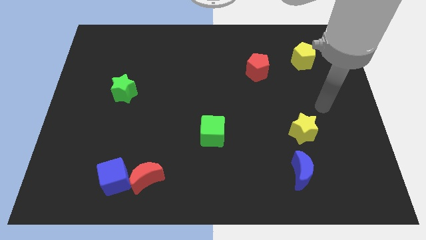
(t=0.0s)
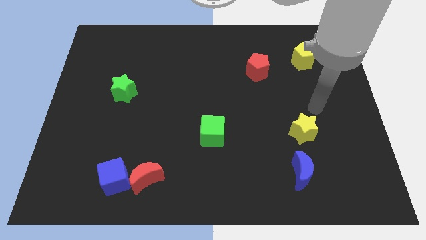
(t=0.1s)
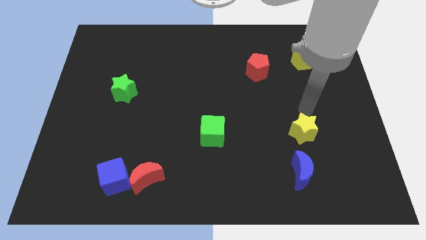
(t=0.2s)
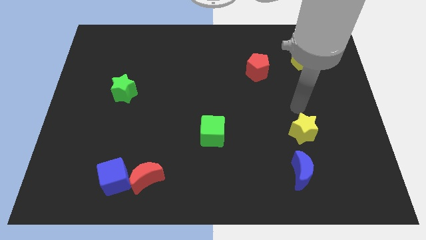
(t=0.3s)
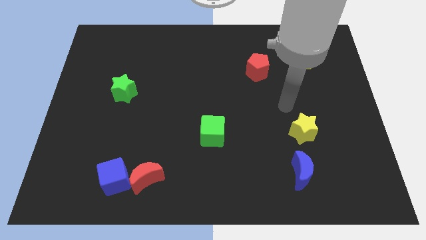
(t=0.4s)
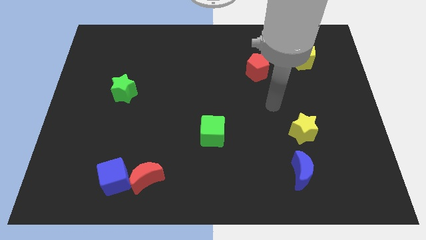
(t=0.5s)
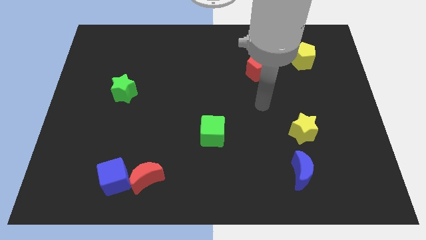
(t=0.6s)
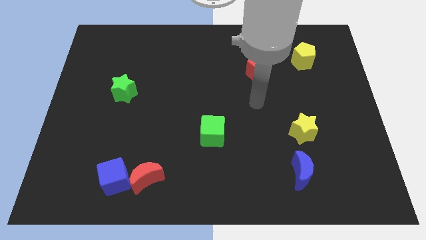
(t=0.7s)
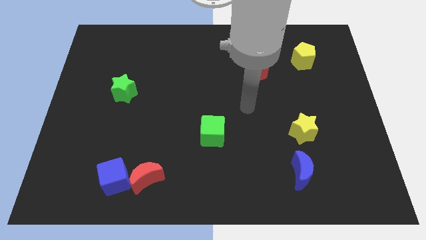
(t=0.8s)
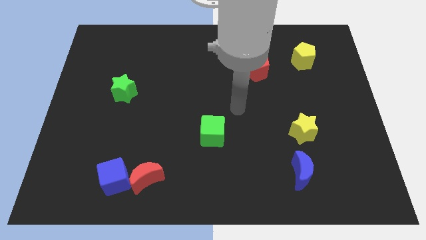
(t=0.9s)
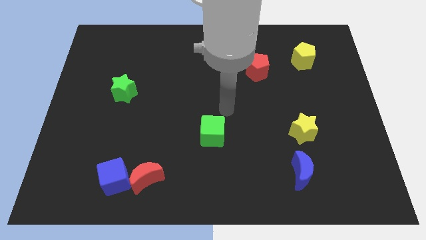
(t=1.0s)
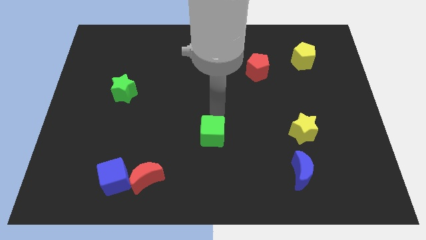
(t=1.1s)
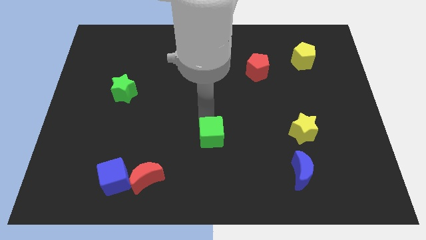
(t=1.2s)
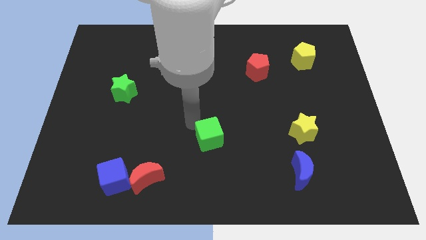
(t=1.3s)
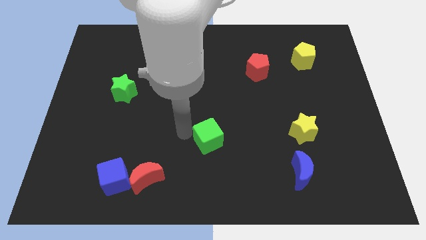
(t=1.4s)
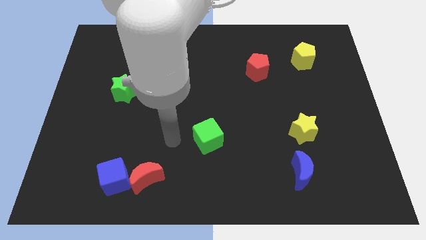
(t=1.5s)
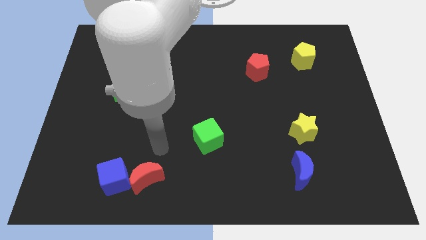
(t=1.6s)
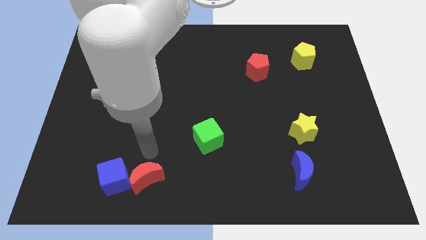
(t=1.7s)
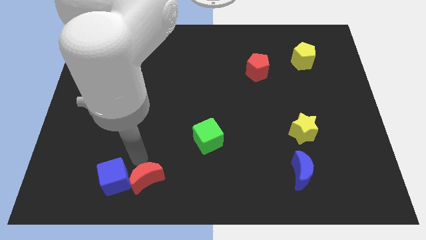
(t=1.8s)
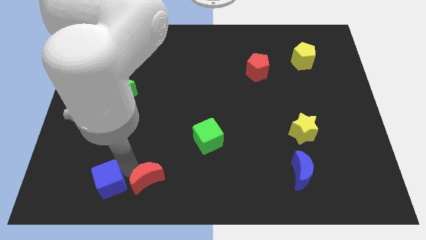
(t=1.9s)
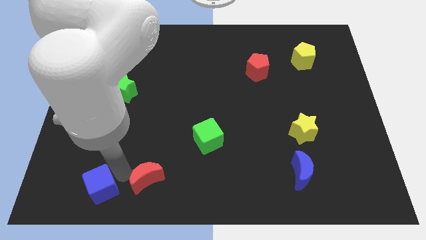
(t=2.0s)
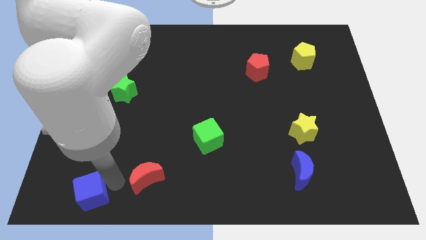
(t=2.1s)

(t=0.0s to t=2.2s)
move the red moon away from the blue cube

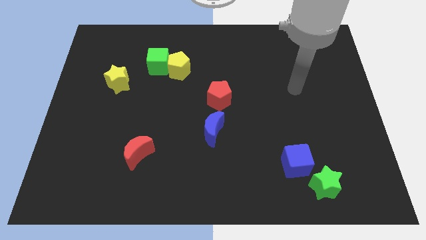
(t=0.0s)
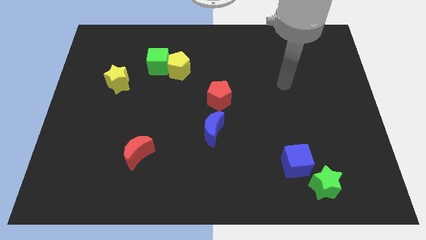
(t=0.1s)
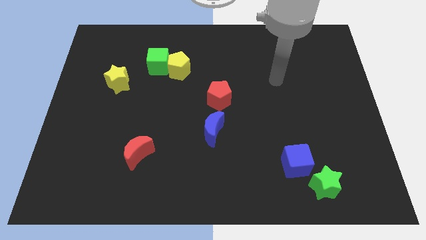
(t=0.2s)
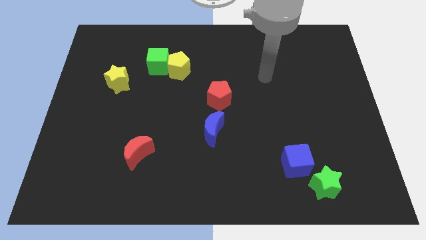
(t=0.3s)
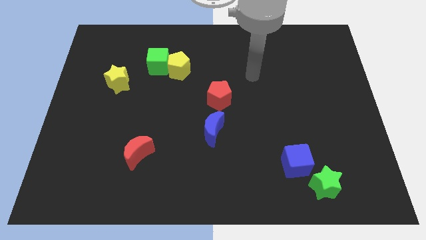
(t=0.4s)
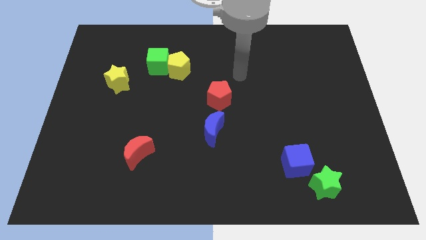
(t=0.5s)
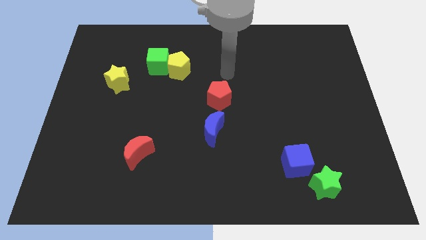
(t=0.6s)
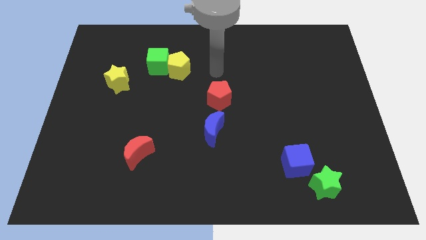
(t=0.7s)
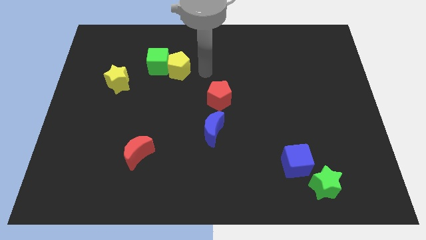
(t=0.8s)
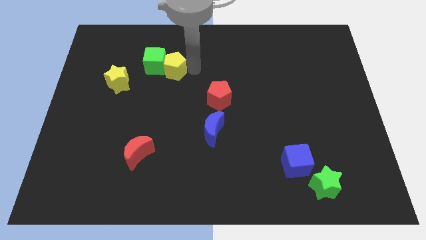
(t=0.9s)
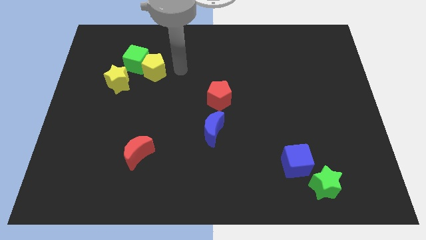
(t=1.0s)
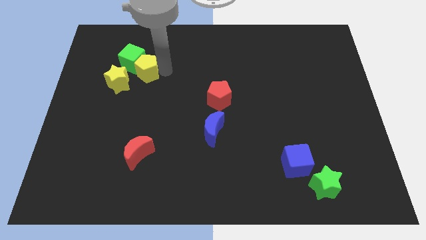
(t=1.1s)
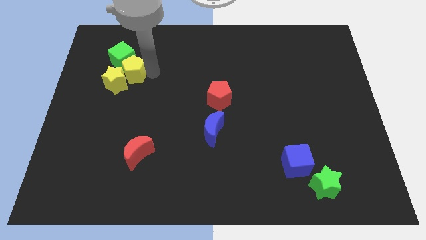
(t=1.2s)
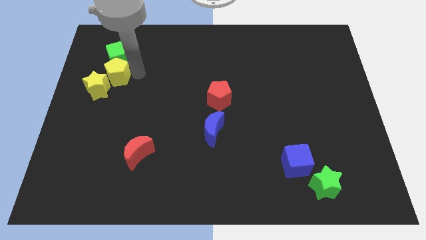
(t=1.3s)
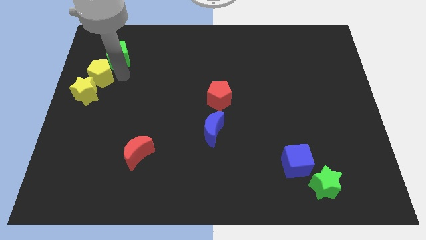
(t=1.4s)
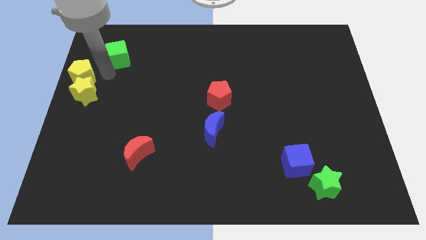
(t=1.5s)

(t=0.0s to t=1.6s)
pull the green cube apart from the yellow pentagon

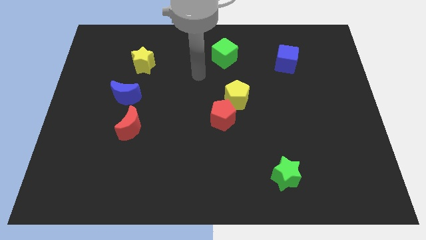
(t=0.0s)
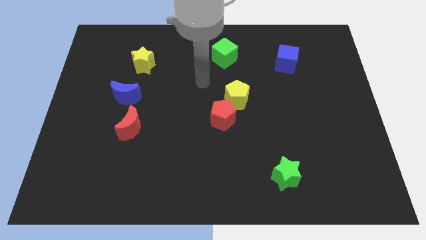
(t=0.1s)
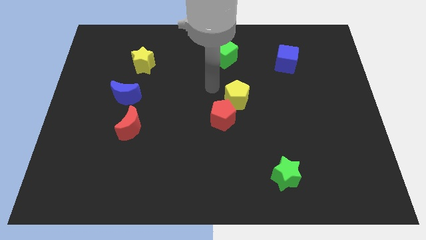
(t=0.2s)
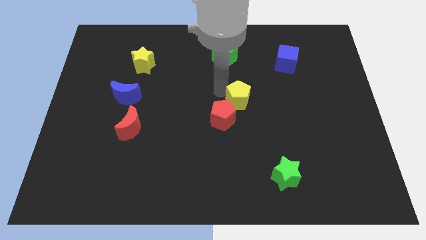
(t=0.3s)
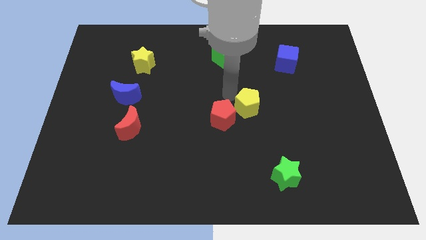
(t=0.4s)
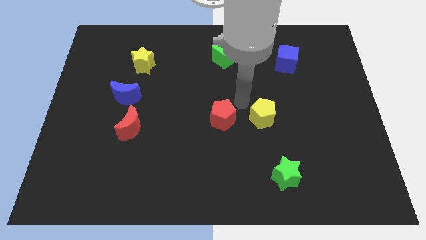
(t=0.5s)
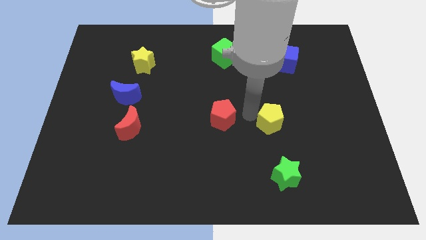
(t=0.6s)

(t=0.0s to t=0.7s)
separate the red pentagon from the yellow pentagon

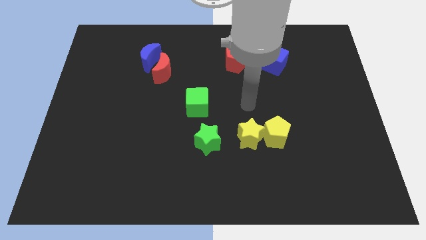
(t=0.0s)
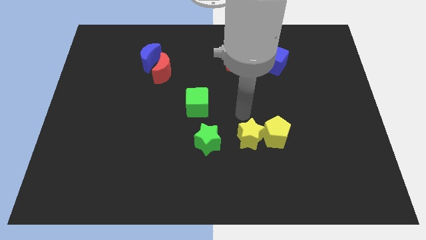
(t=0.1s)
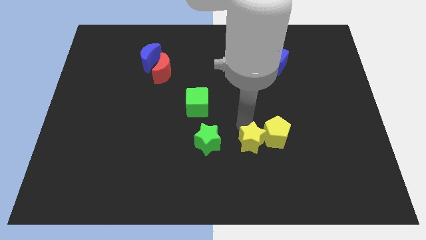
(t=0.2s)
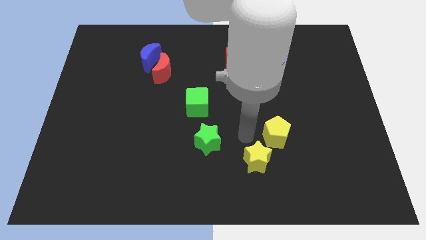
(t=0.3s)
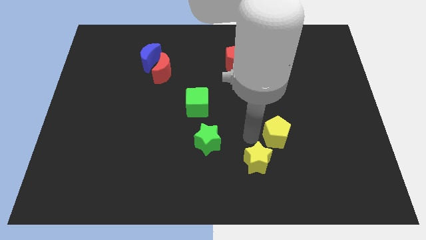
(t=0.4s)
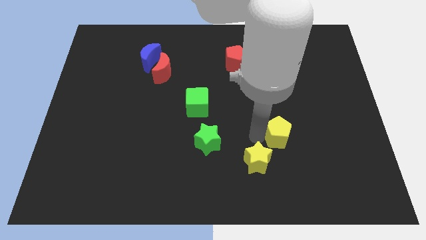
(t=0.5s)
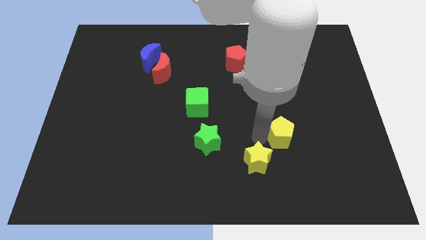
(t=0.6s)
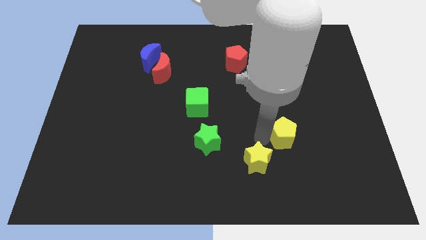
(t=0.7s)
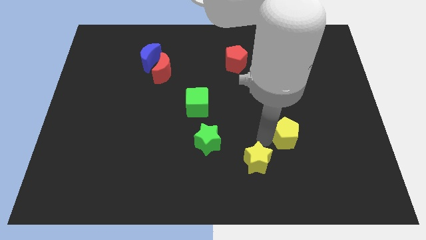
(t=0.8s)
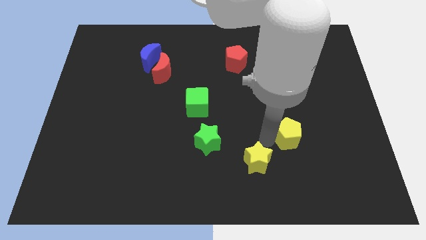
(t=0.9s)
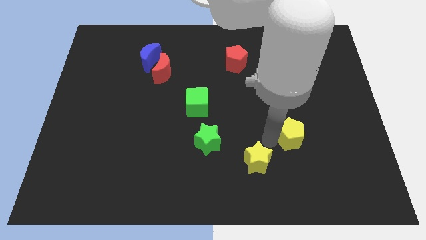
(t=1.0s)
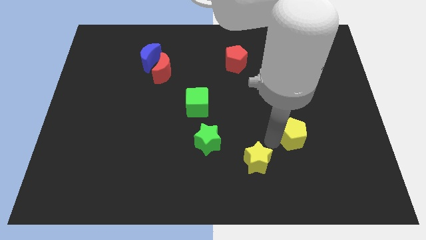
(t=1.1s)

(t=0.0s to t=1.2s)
pull the yellow pentagon apart from the yellow star

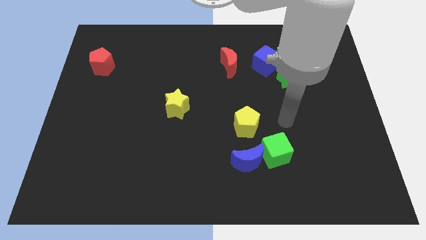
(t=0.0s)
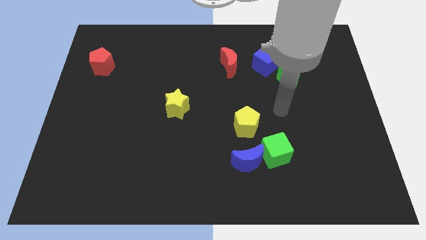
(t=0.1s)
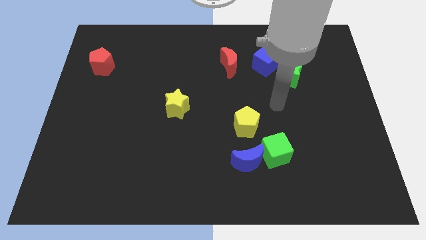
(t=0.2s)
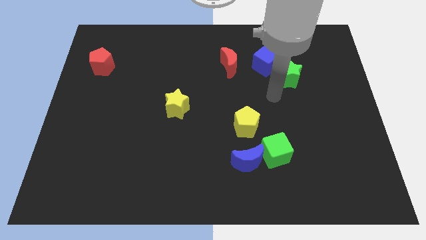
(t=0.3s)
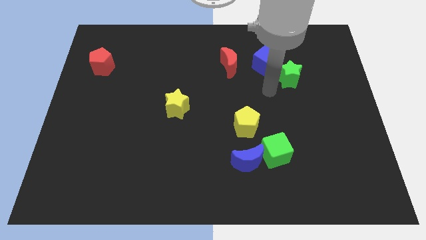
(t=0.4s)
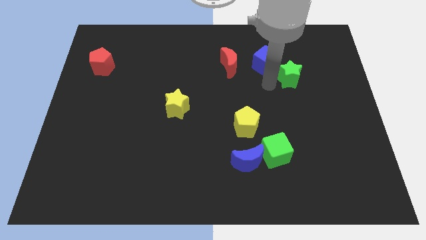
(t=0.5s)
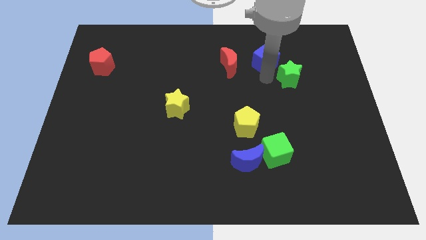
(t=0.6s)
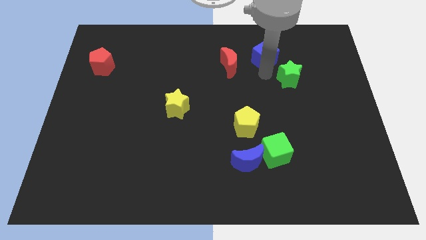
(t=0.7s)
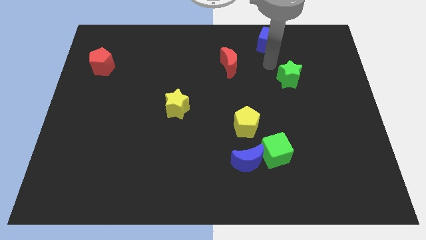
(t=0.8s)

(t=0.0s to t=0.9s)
move the green star away from the blue cube

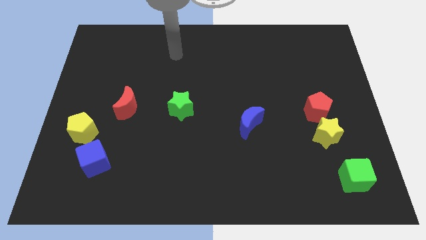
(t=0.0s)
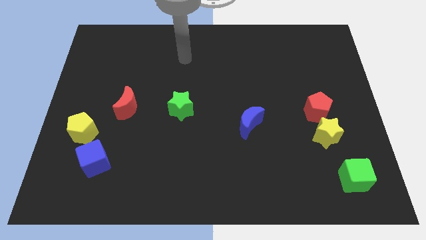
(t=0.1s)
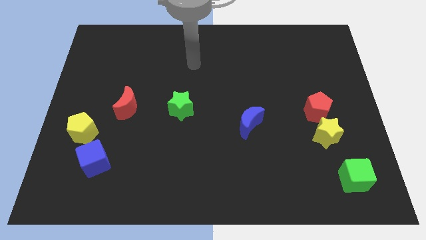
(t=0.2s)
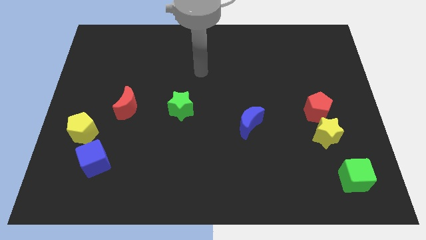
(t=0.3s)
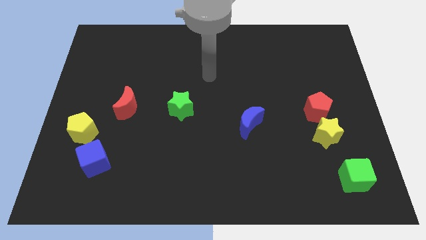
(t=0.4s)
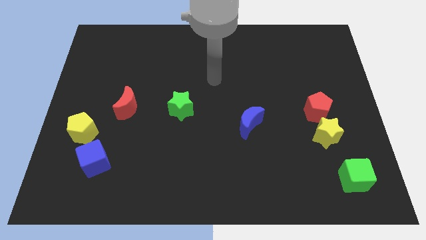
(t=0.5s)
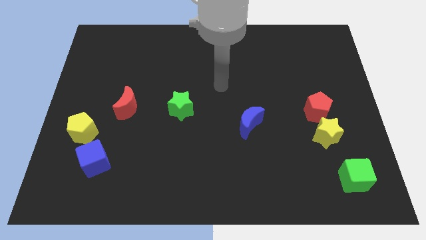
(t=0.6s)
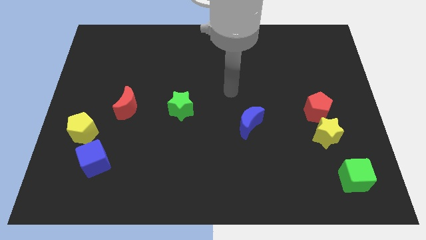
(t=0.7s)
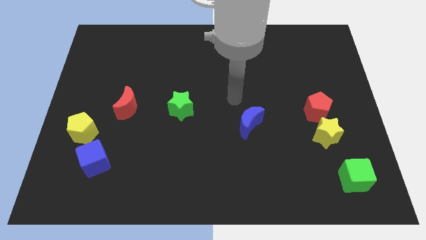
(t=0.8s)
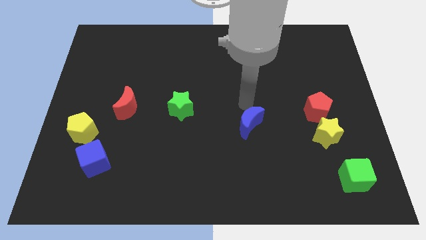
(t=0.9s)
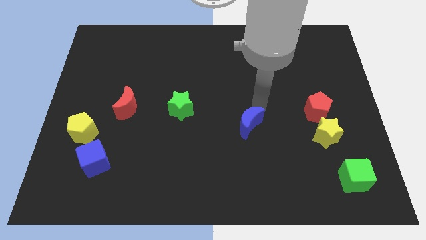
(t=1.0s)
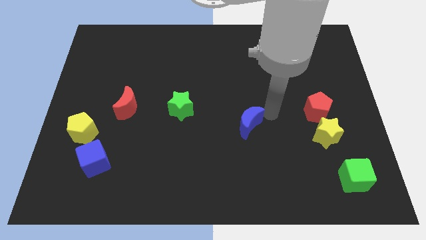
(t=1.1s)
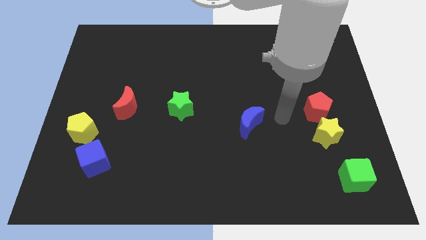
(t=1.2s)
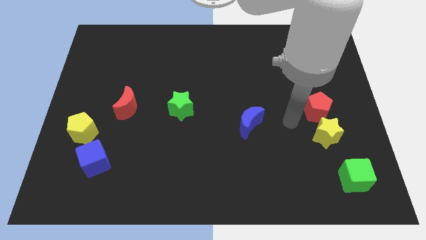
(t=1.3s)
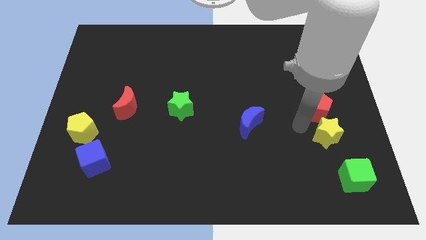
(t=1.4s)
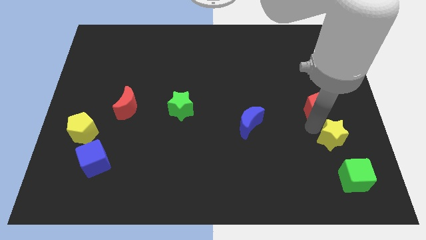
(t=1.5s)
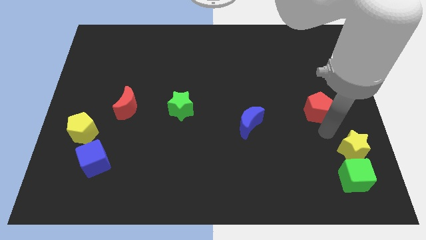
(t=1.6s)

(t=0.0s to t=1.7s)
separate the red pentagon from the yellow star

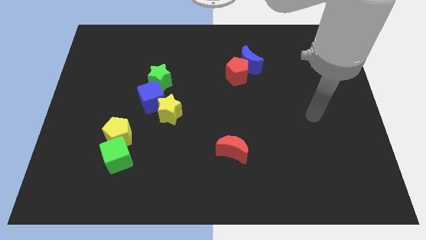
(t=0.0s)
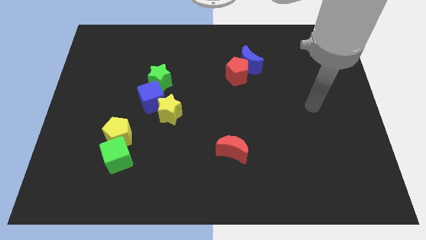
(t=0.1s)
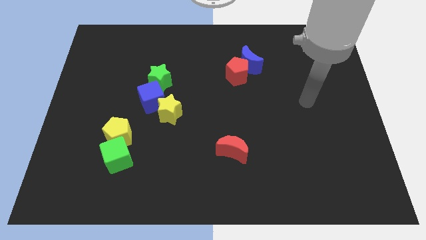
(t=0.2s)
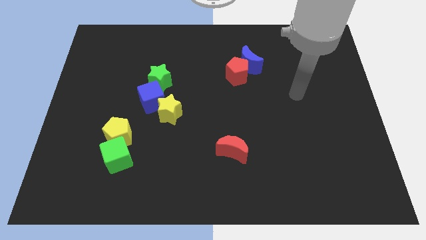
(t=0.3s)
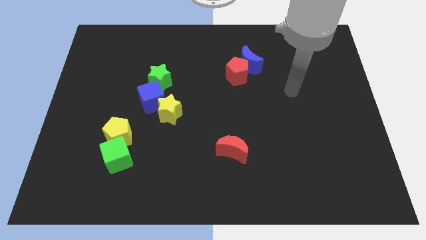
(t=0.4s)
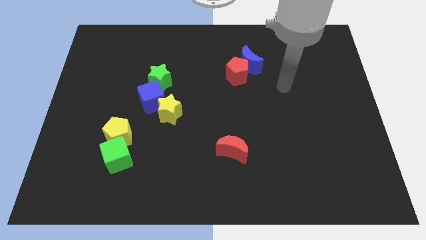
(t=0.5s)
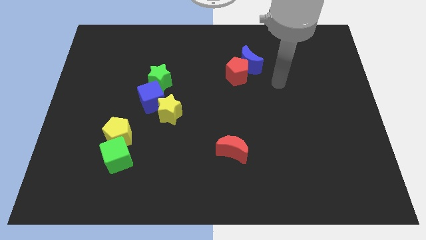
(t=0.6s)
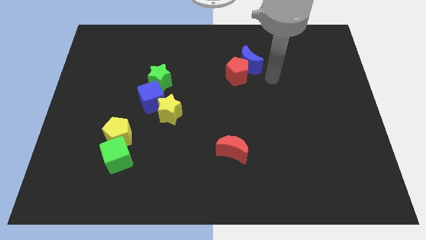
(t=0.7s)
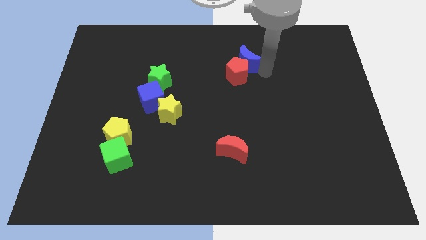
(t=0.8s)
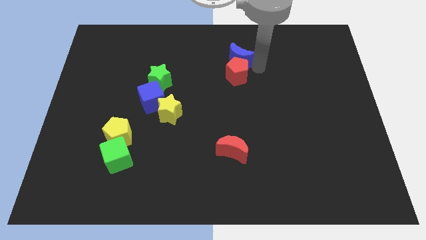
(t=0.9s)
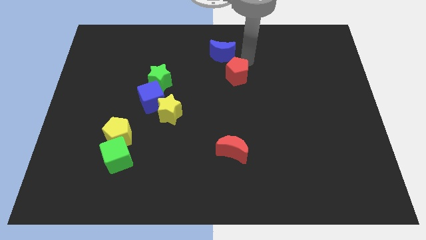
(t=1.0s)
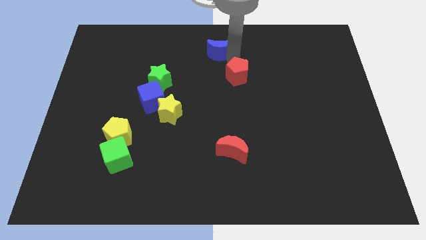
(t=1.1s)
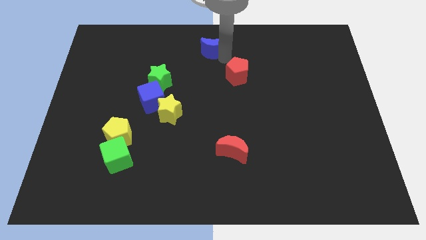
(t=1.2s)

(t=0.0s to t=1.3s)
move the red pentagon away from the blue moon
